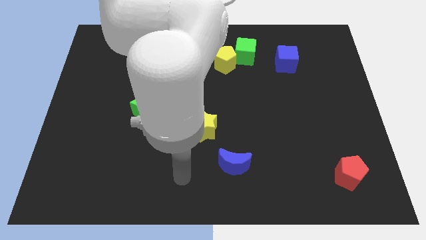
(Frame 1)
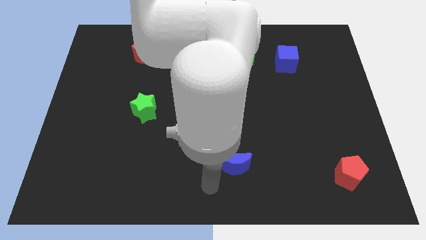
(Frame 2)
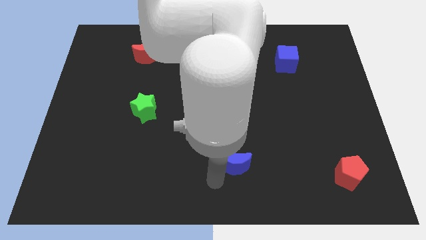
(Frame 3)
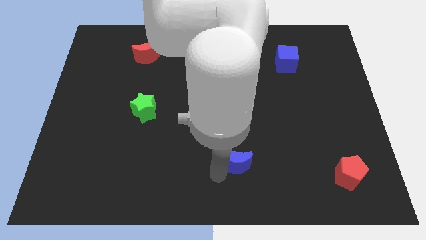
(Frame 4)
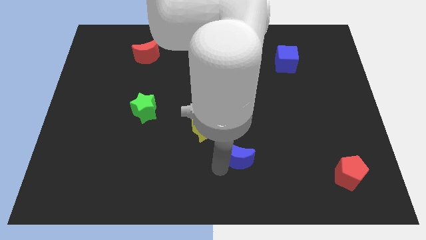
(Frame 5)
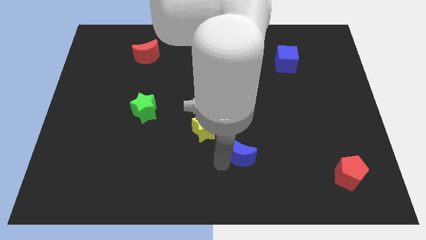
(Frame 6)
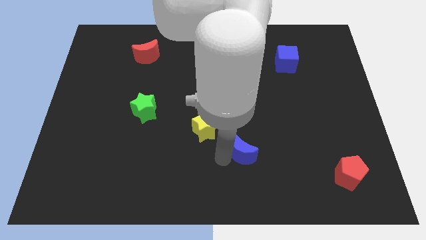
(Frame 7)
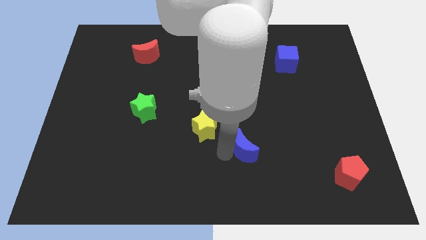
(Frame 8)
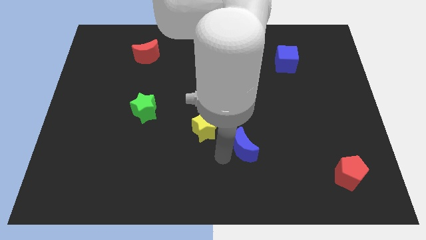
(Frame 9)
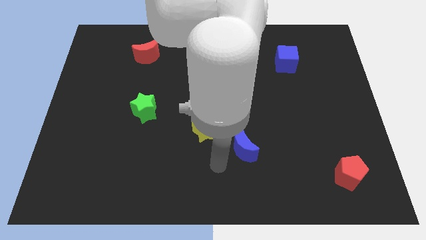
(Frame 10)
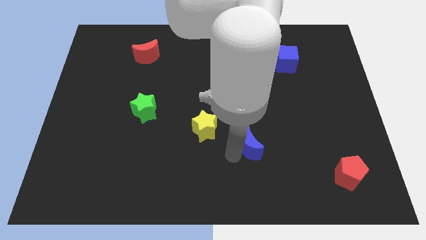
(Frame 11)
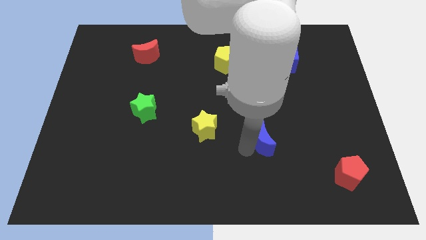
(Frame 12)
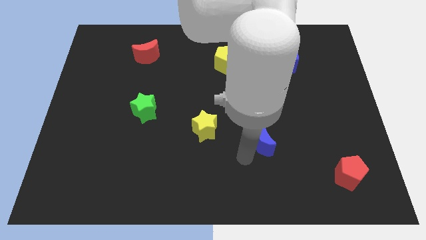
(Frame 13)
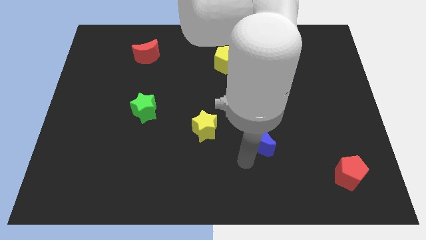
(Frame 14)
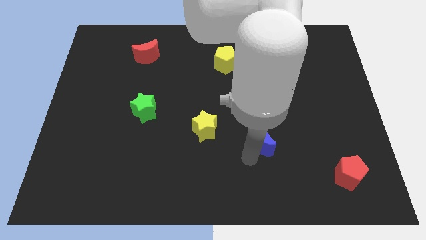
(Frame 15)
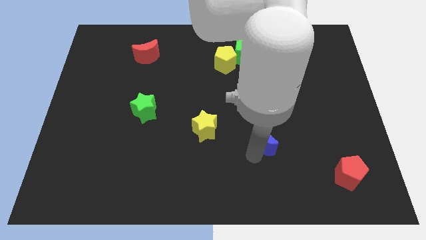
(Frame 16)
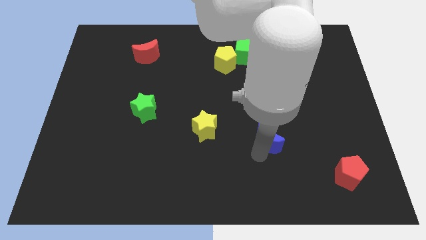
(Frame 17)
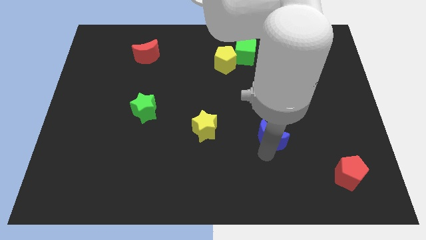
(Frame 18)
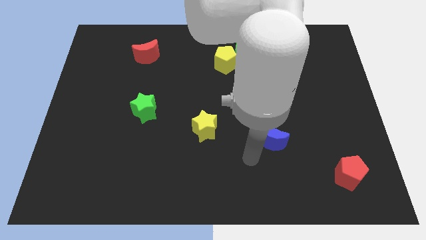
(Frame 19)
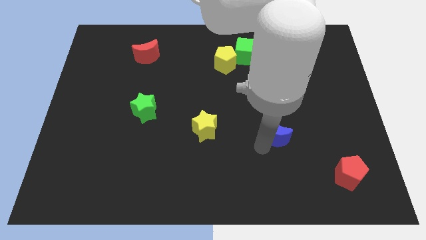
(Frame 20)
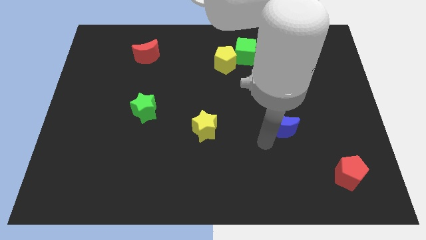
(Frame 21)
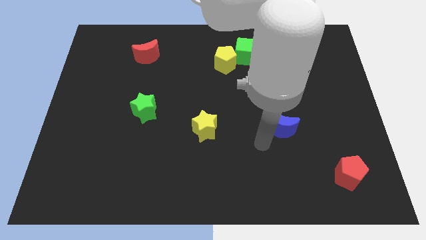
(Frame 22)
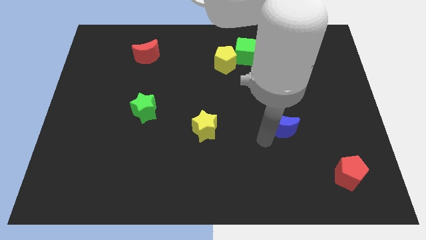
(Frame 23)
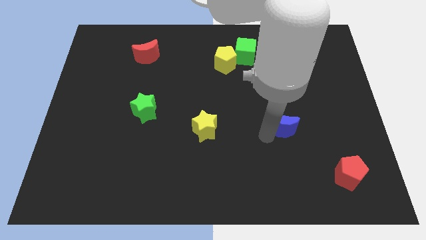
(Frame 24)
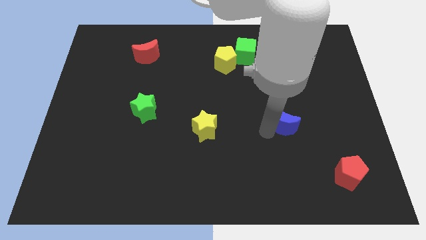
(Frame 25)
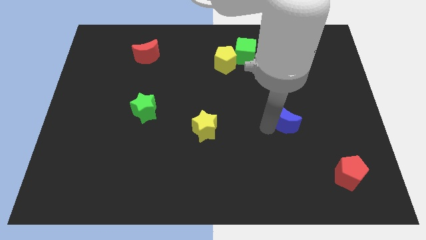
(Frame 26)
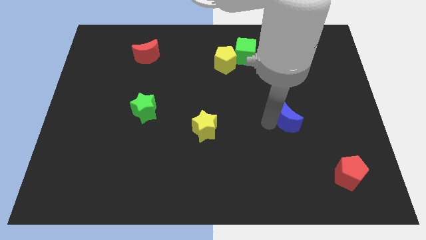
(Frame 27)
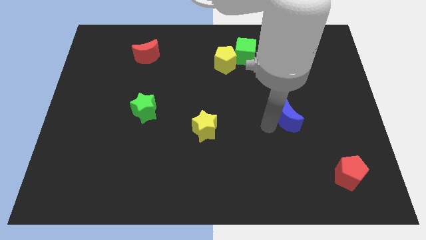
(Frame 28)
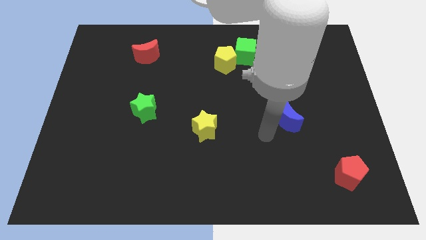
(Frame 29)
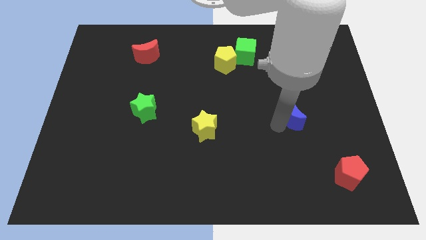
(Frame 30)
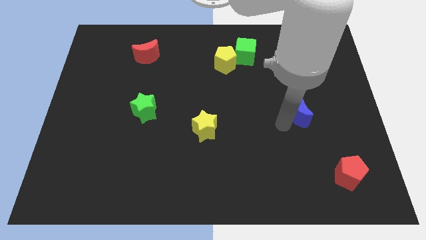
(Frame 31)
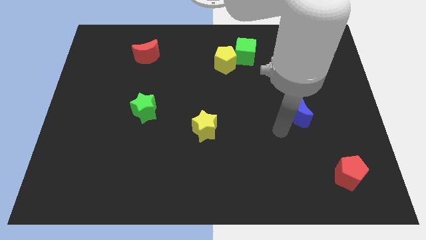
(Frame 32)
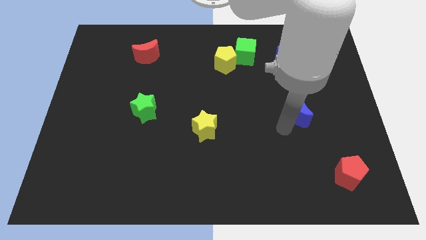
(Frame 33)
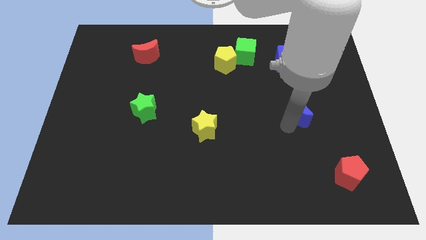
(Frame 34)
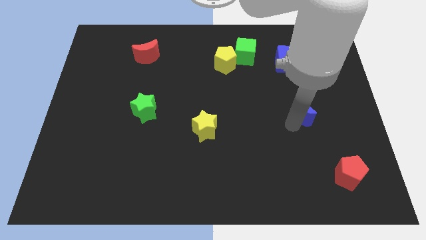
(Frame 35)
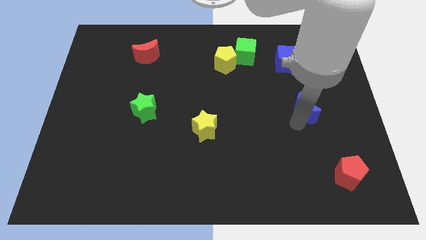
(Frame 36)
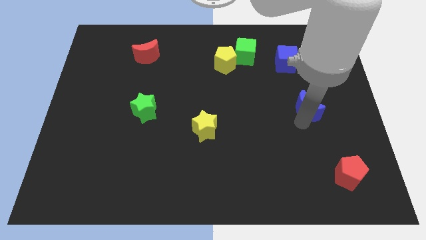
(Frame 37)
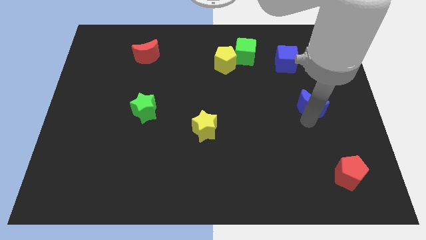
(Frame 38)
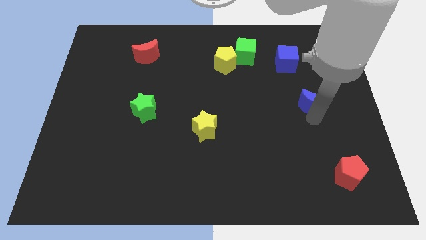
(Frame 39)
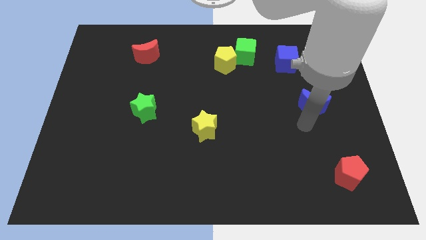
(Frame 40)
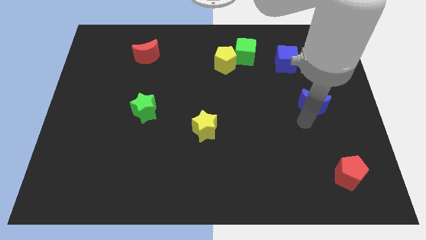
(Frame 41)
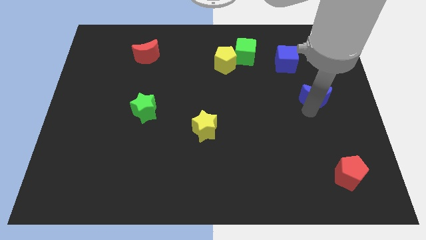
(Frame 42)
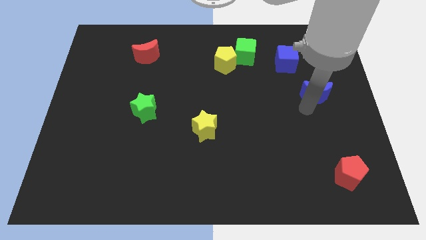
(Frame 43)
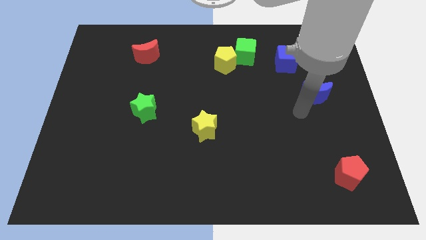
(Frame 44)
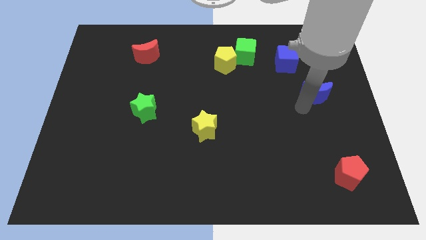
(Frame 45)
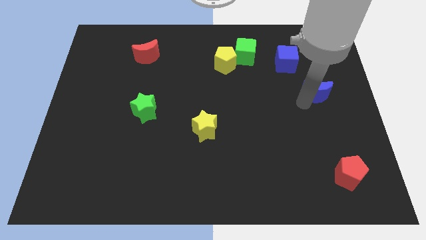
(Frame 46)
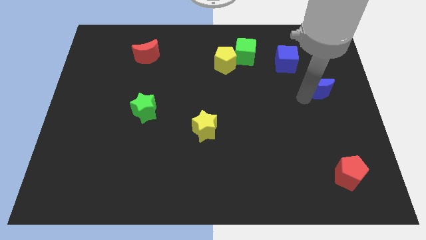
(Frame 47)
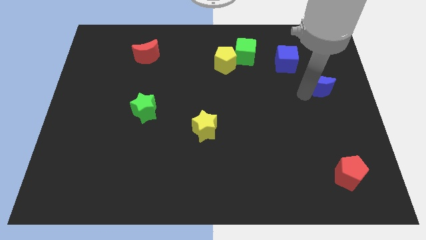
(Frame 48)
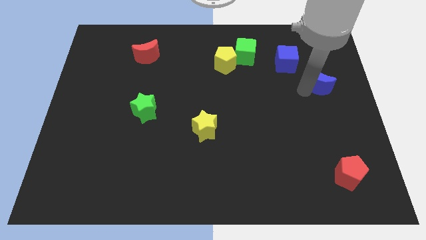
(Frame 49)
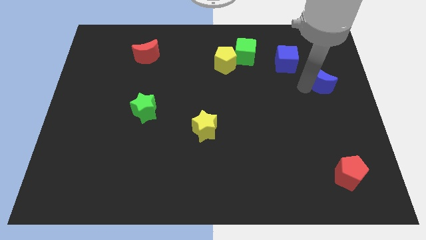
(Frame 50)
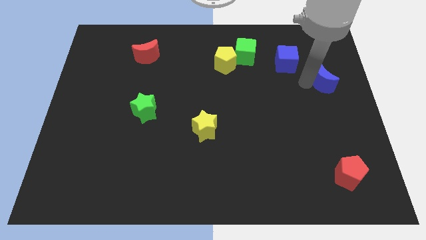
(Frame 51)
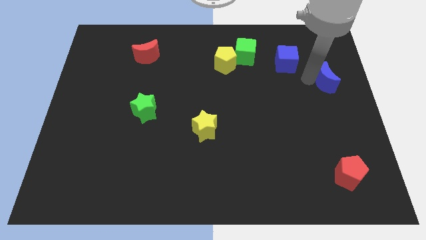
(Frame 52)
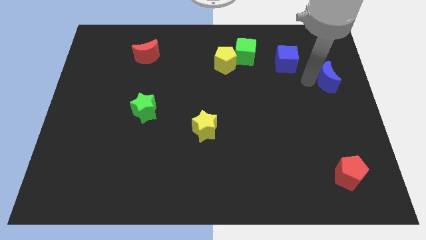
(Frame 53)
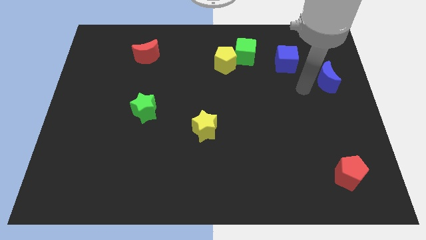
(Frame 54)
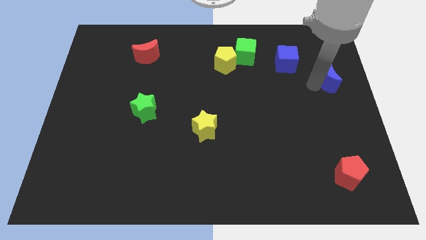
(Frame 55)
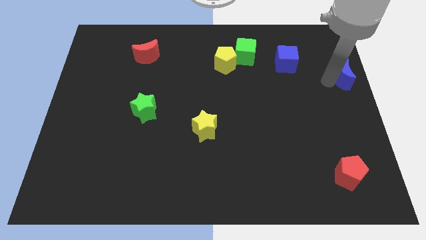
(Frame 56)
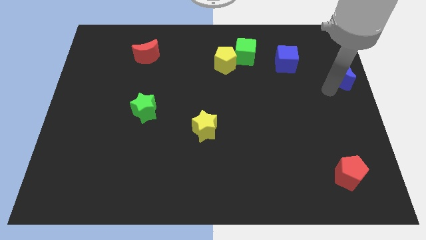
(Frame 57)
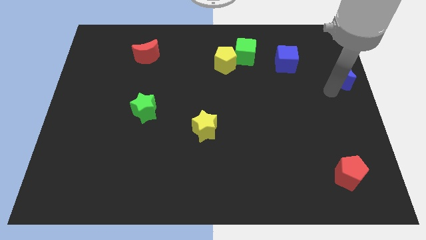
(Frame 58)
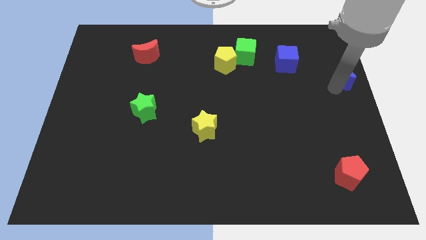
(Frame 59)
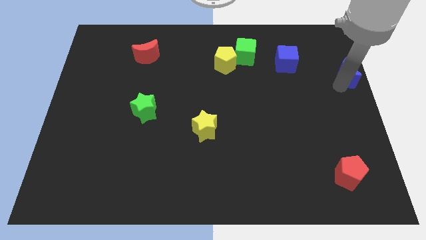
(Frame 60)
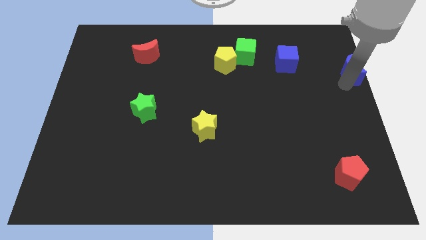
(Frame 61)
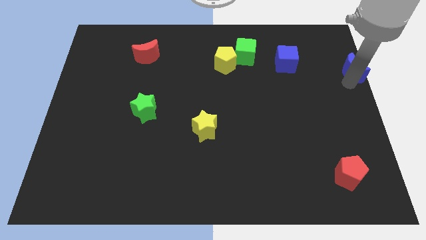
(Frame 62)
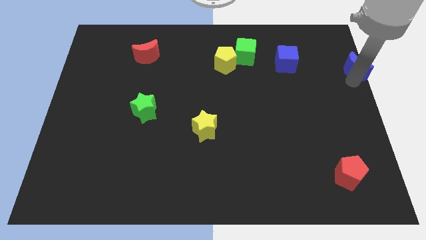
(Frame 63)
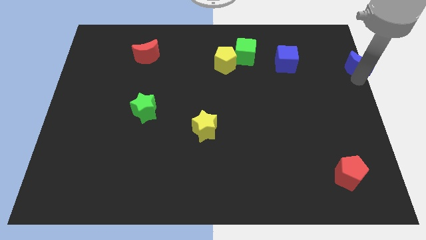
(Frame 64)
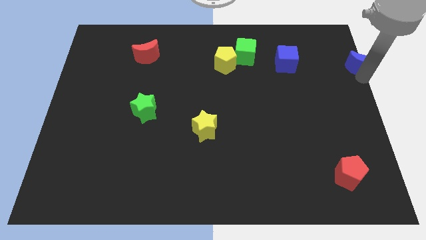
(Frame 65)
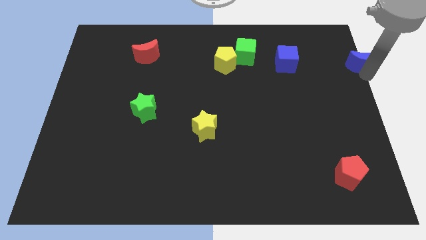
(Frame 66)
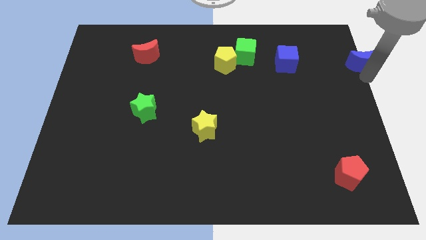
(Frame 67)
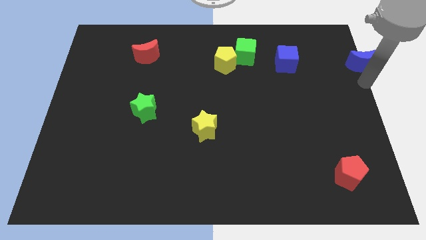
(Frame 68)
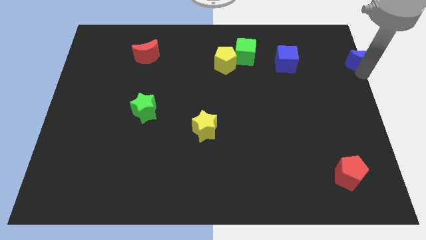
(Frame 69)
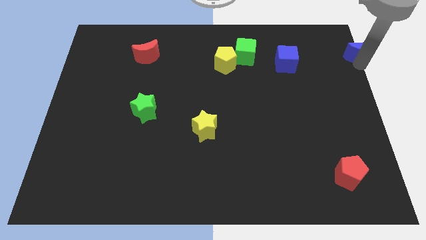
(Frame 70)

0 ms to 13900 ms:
put the blue moon to the top right of the board
